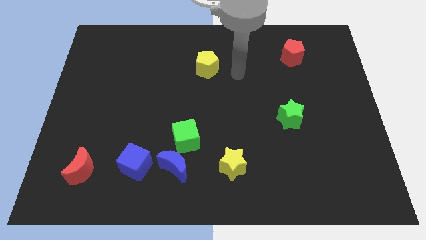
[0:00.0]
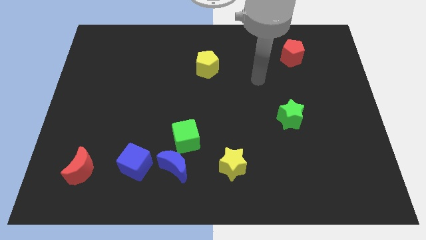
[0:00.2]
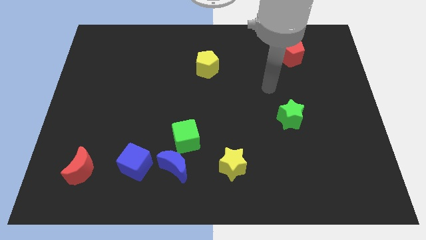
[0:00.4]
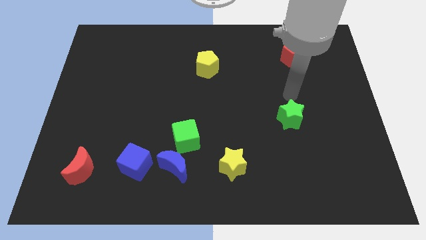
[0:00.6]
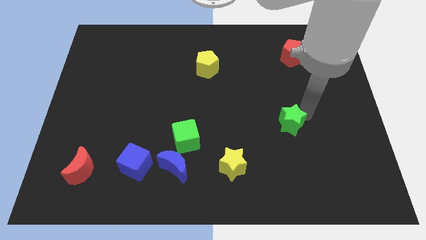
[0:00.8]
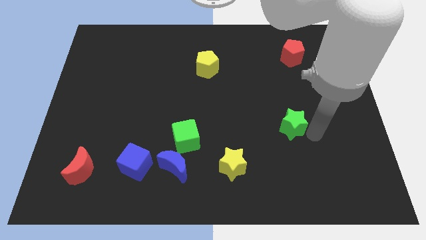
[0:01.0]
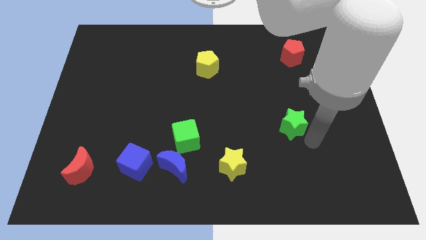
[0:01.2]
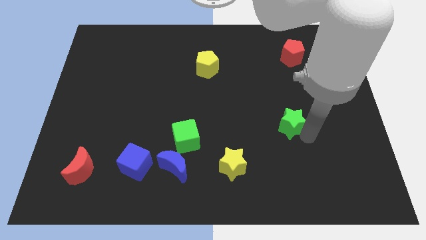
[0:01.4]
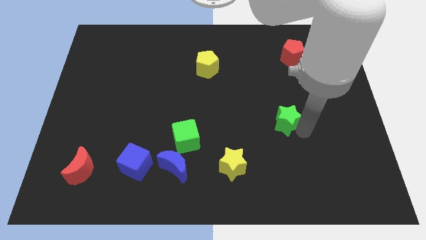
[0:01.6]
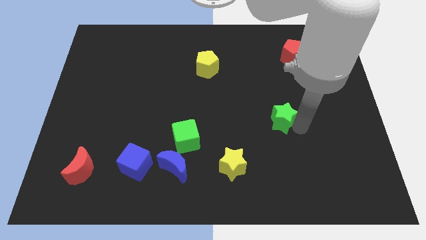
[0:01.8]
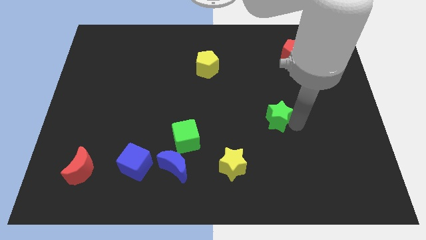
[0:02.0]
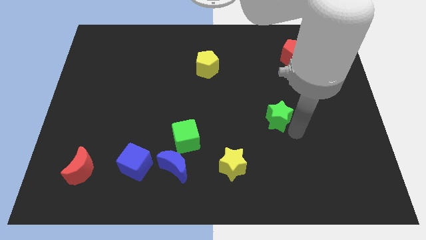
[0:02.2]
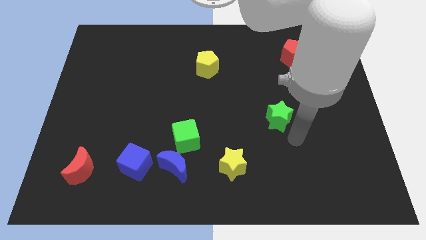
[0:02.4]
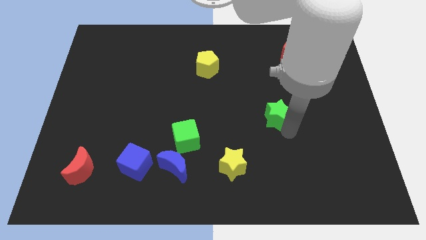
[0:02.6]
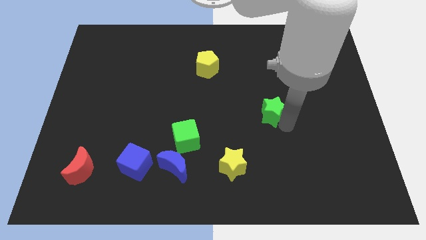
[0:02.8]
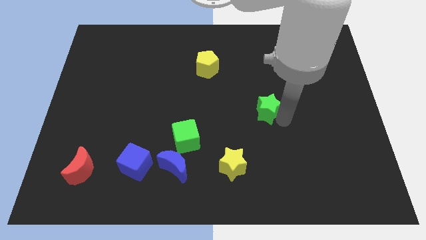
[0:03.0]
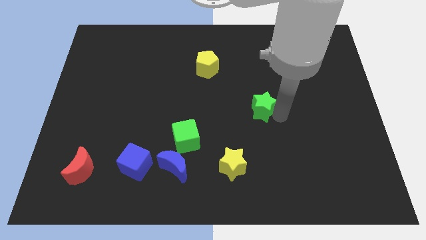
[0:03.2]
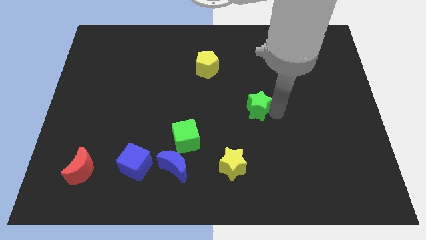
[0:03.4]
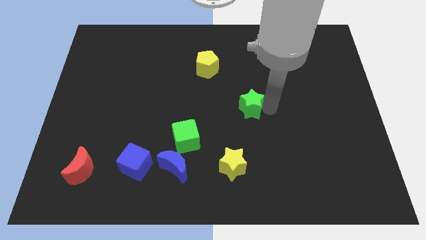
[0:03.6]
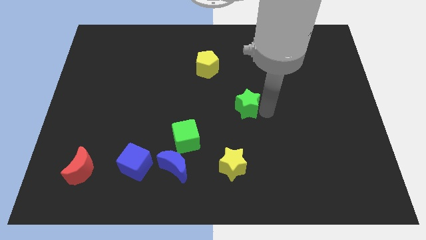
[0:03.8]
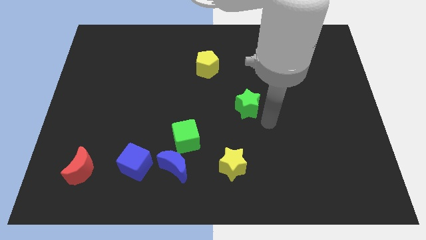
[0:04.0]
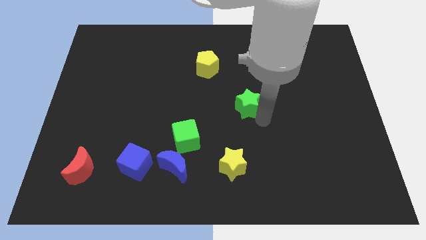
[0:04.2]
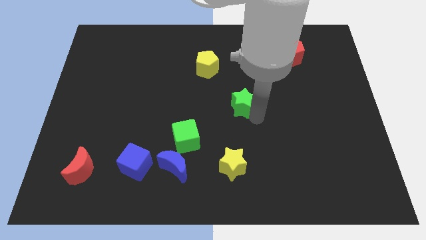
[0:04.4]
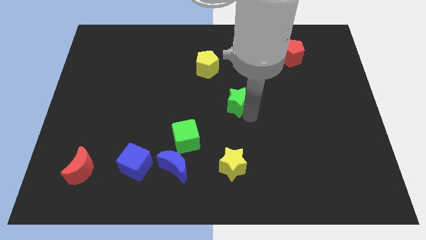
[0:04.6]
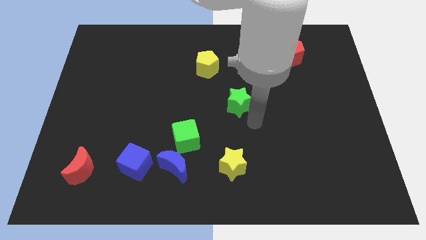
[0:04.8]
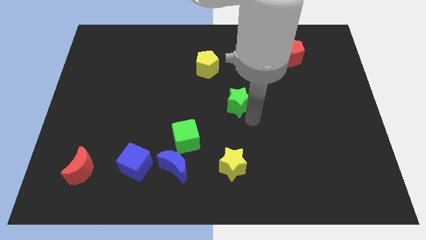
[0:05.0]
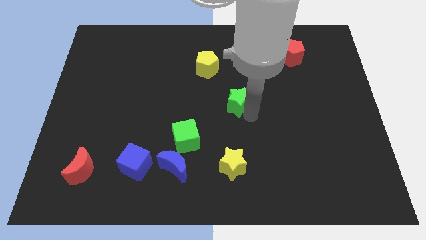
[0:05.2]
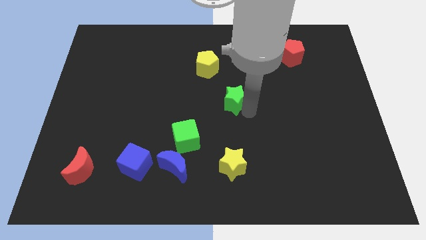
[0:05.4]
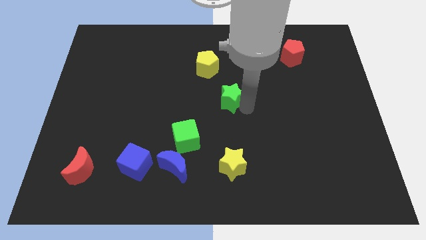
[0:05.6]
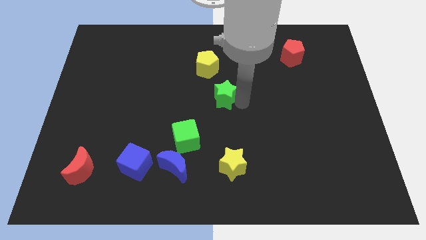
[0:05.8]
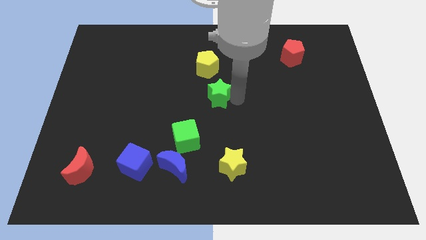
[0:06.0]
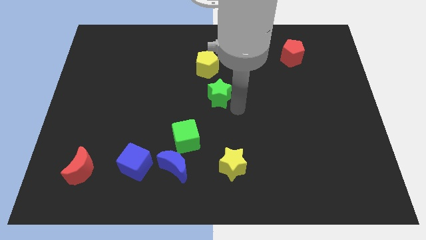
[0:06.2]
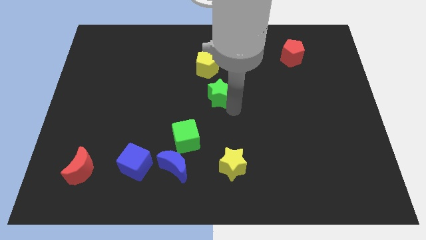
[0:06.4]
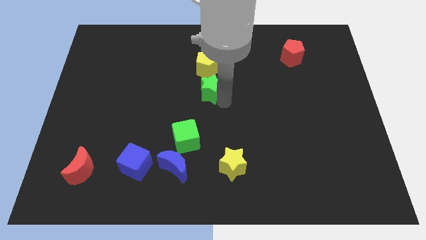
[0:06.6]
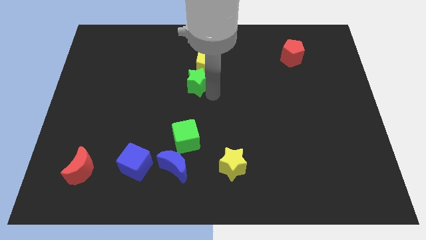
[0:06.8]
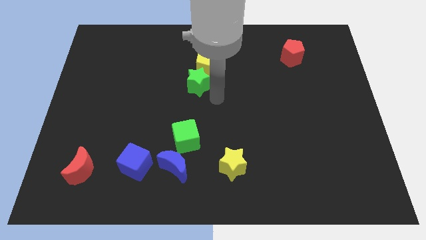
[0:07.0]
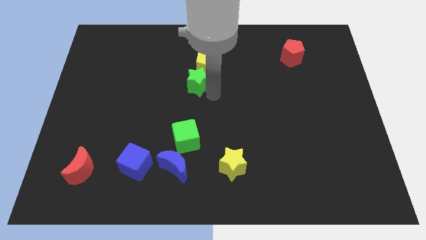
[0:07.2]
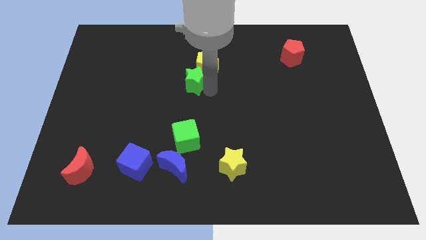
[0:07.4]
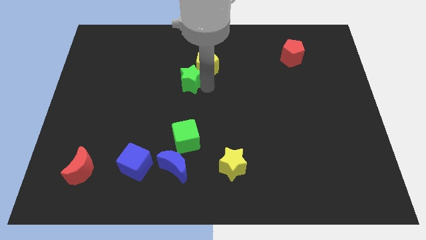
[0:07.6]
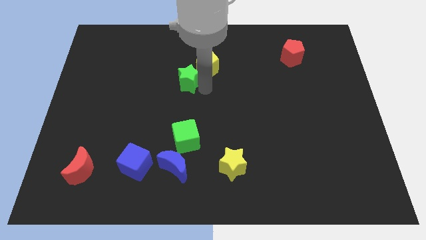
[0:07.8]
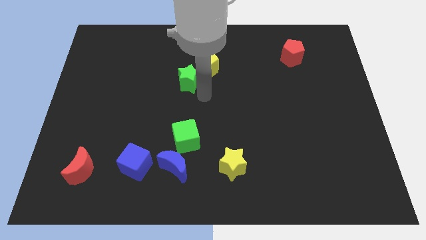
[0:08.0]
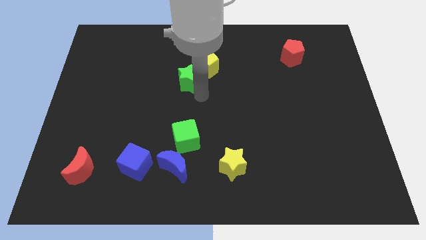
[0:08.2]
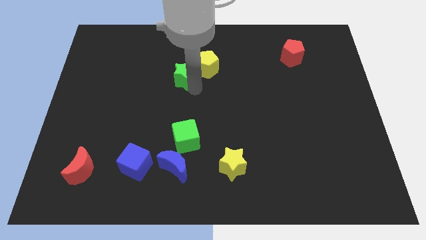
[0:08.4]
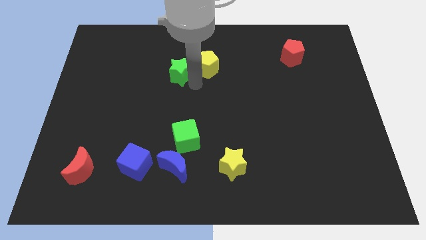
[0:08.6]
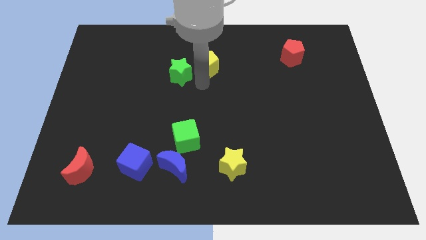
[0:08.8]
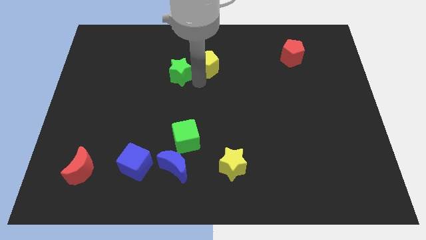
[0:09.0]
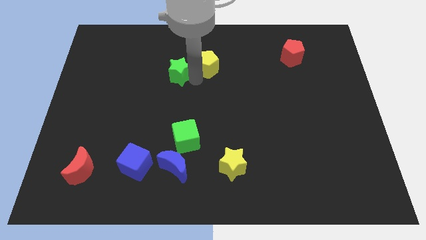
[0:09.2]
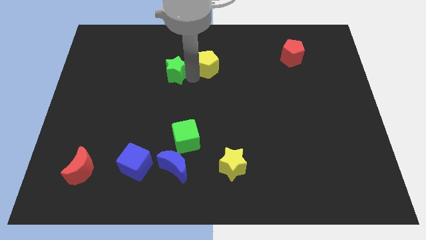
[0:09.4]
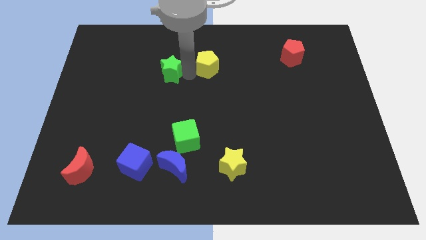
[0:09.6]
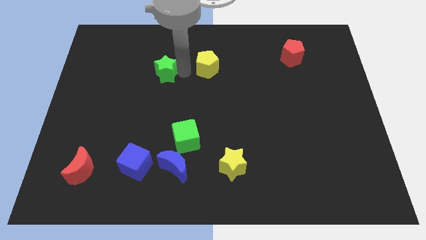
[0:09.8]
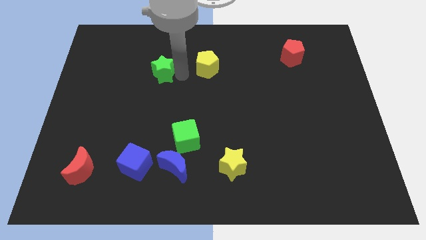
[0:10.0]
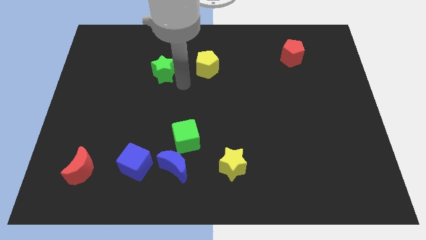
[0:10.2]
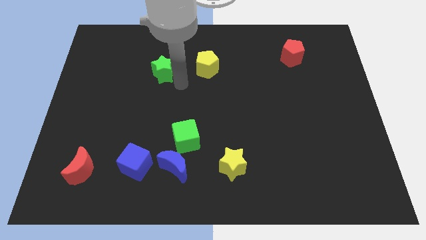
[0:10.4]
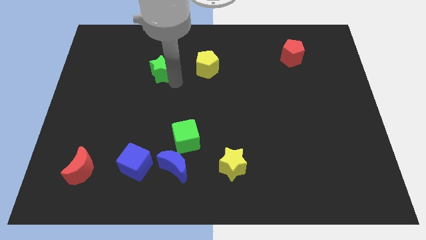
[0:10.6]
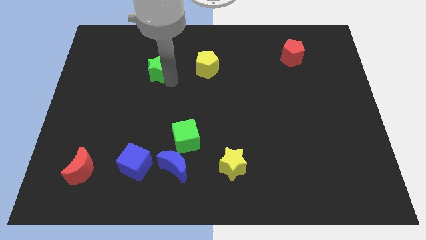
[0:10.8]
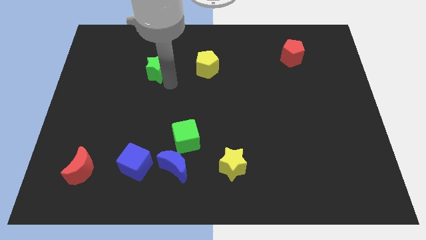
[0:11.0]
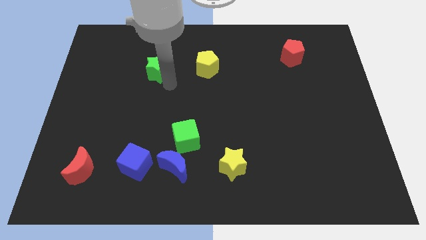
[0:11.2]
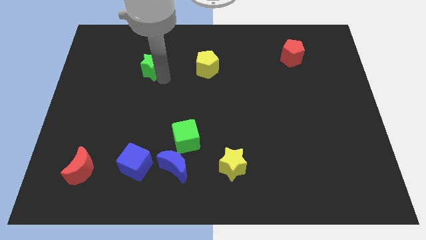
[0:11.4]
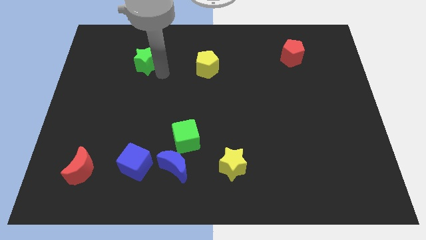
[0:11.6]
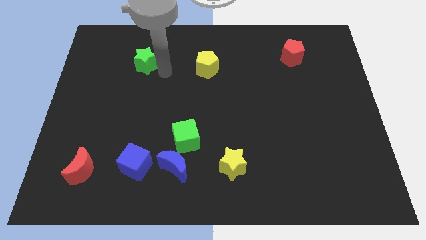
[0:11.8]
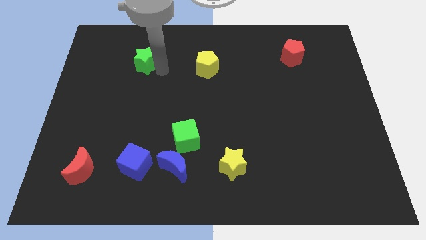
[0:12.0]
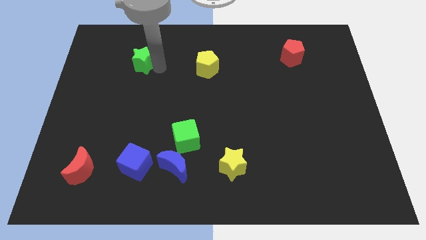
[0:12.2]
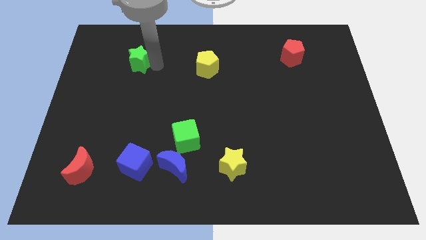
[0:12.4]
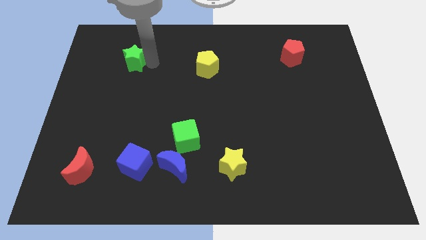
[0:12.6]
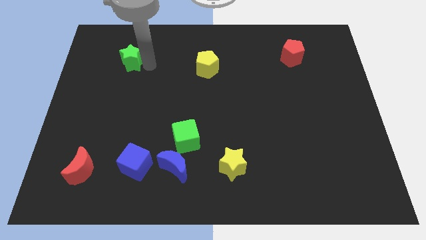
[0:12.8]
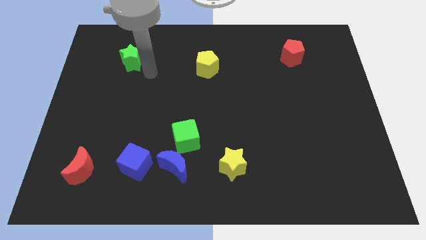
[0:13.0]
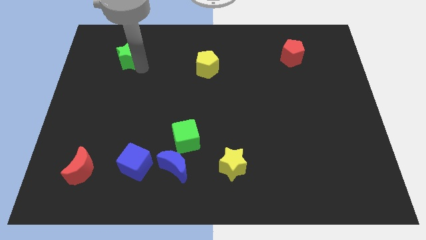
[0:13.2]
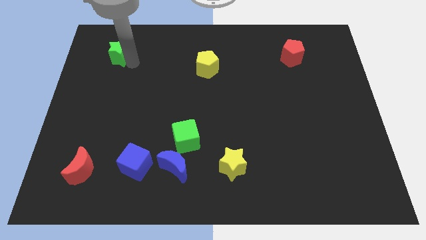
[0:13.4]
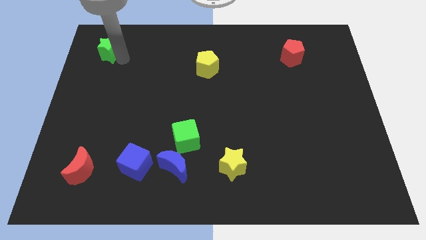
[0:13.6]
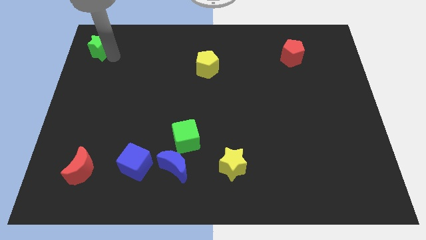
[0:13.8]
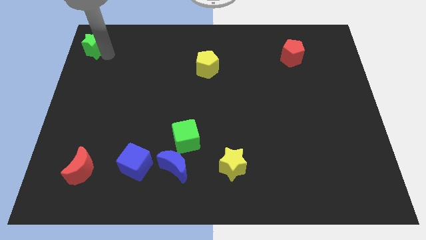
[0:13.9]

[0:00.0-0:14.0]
move the green star to the top left corner
